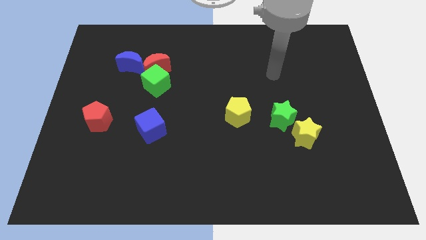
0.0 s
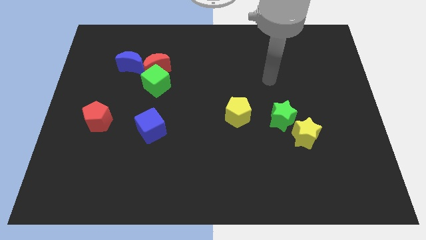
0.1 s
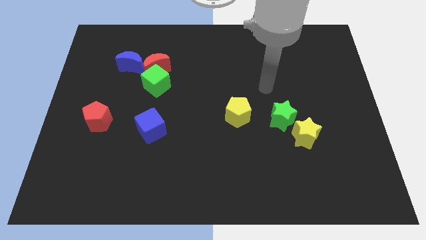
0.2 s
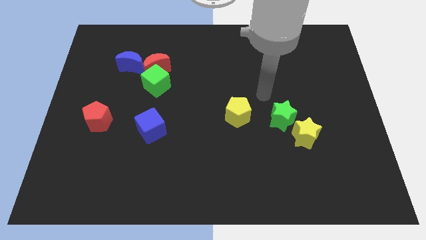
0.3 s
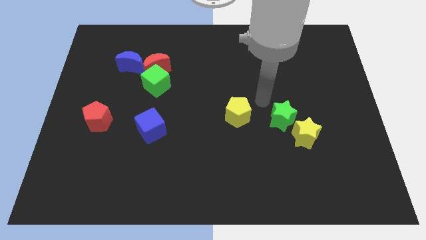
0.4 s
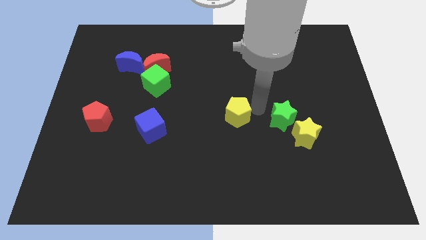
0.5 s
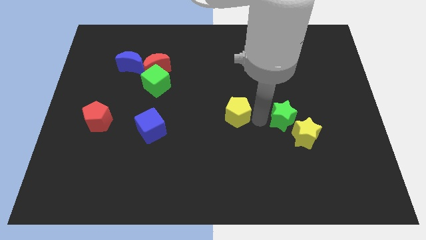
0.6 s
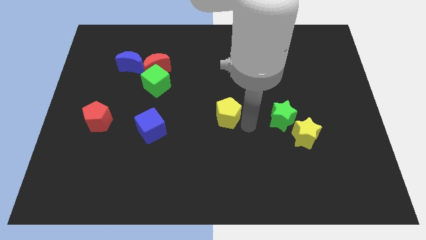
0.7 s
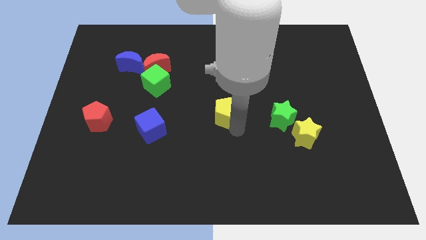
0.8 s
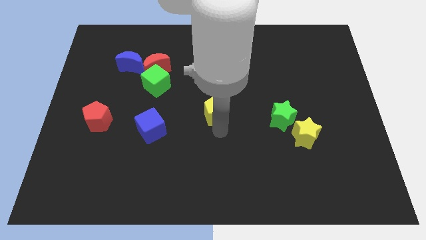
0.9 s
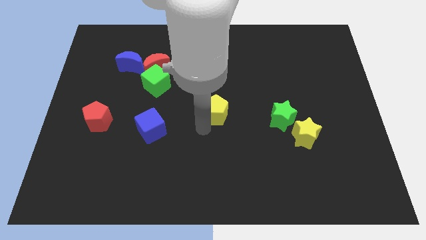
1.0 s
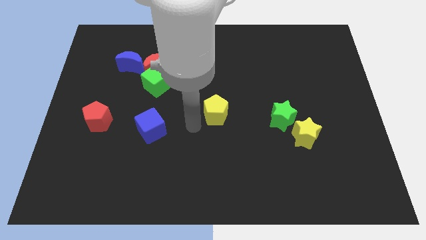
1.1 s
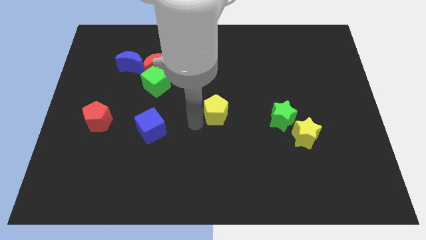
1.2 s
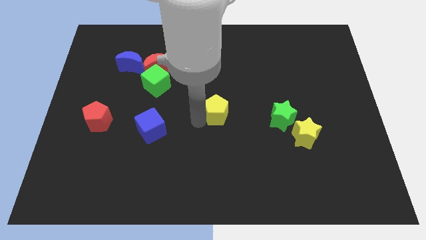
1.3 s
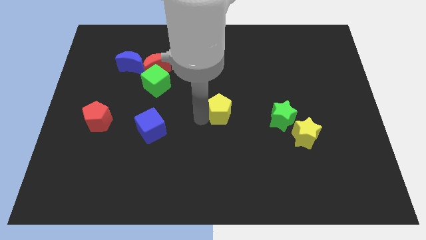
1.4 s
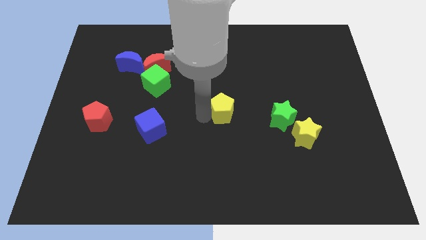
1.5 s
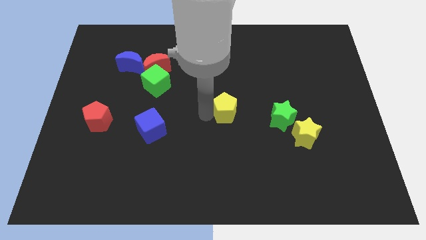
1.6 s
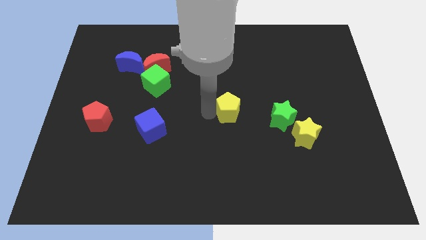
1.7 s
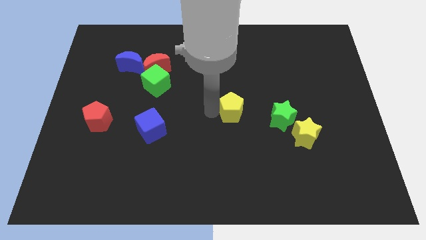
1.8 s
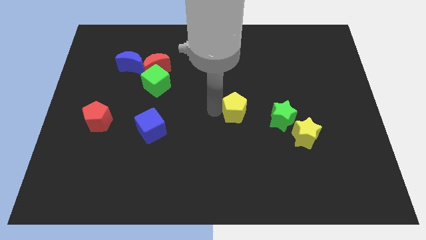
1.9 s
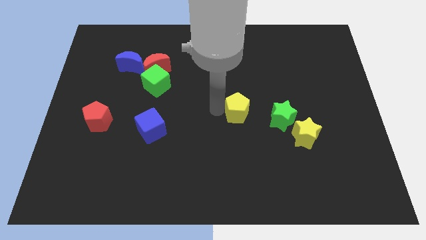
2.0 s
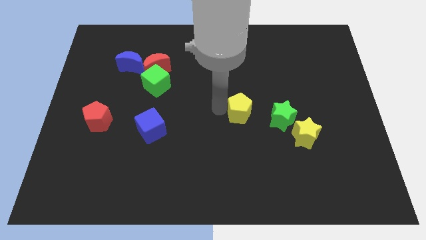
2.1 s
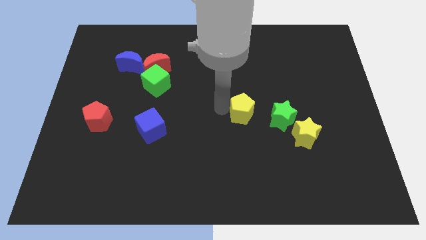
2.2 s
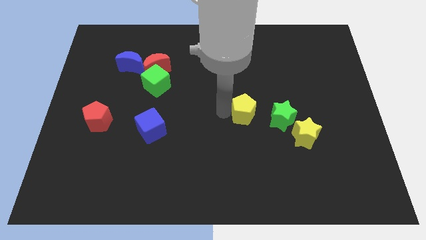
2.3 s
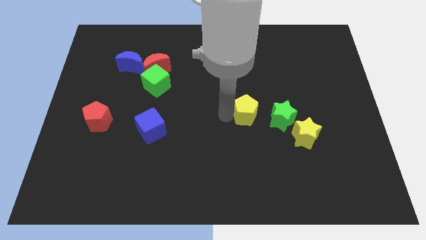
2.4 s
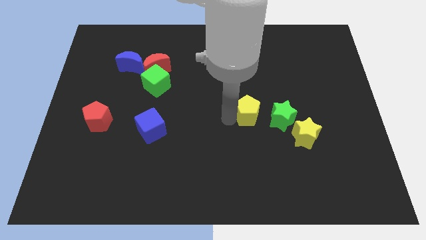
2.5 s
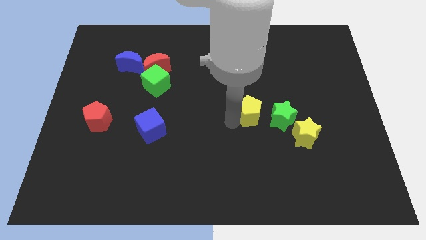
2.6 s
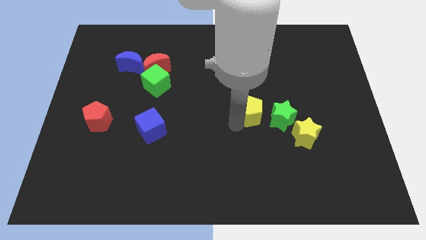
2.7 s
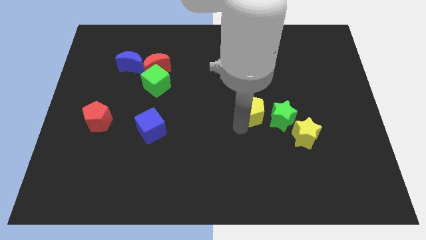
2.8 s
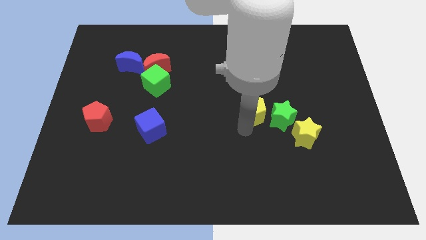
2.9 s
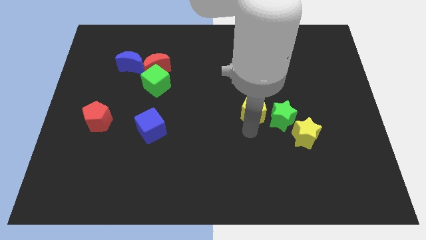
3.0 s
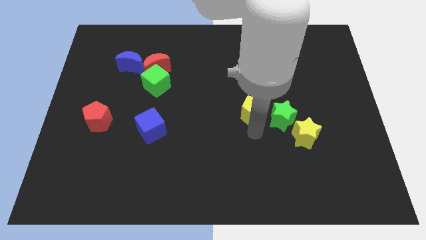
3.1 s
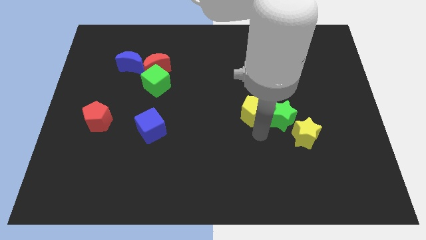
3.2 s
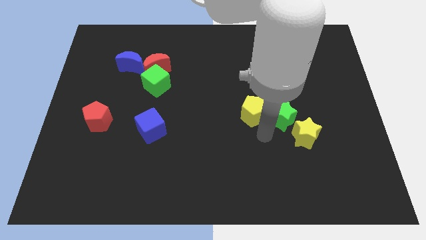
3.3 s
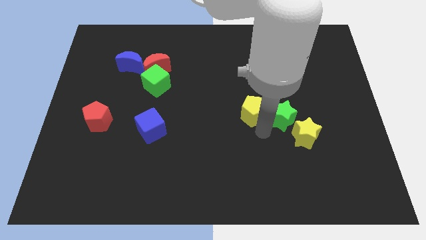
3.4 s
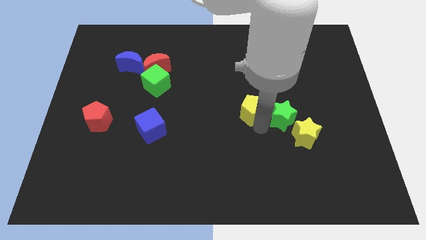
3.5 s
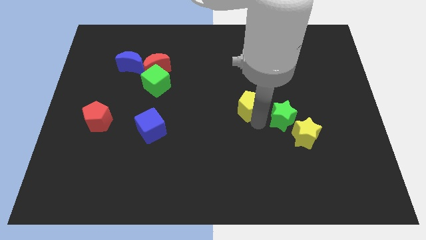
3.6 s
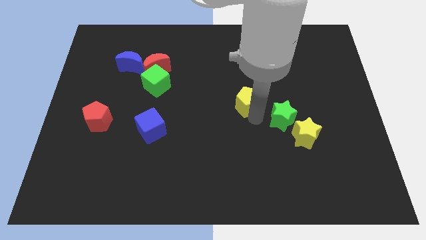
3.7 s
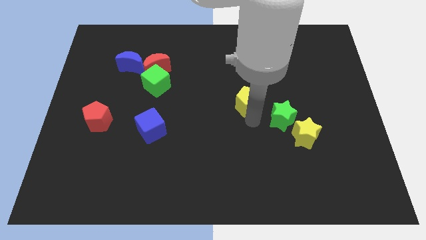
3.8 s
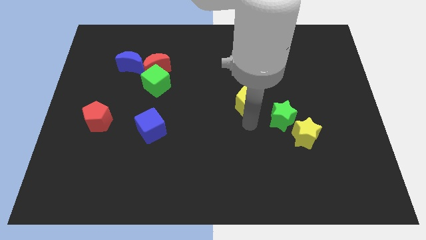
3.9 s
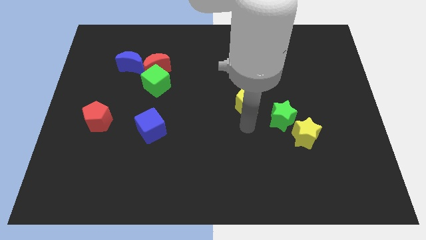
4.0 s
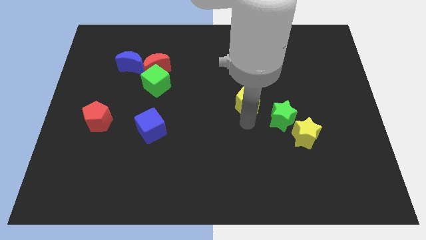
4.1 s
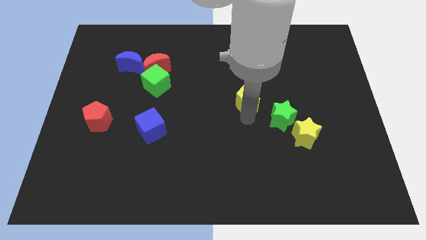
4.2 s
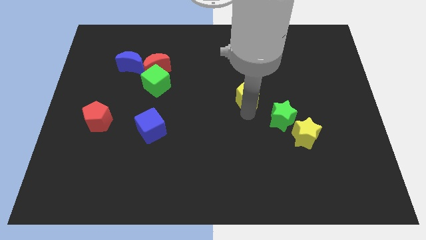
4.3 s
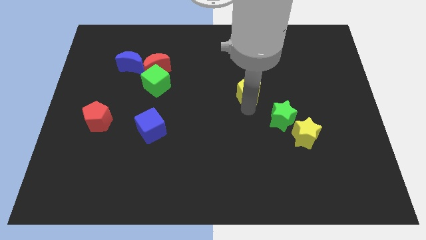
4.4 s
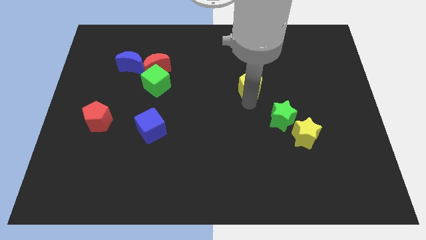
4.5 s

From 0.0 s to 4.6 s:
slightly slide the yellow pentagon up

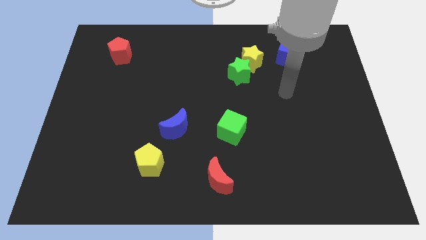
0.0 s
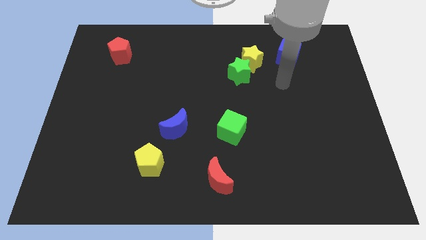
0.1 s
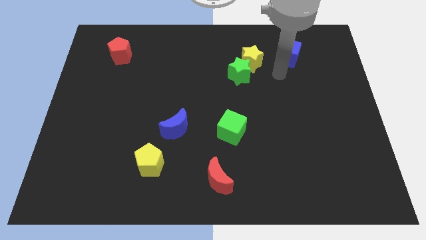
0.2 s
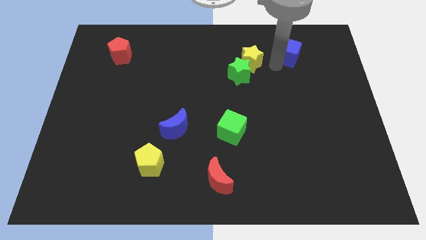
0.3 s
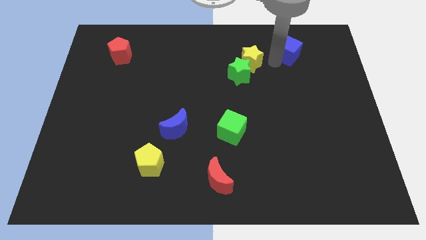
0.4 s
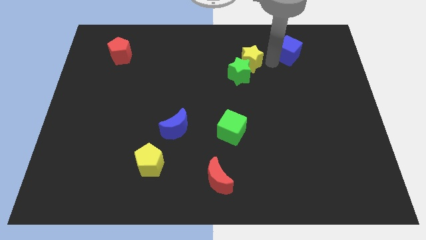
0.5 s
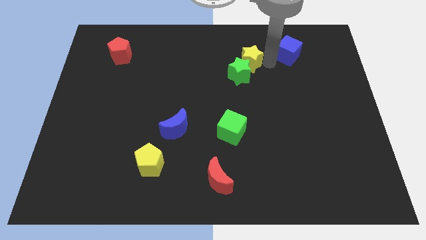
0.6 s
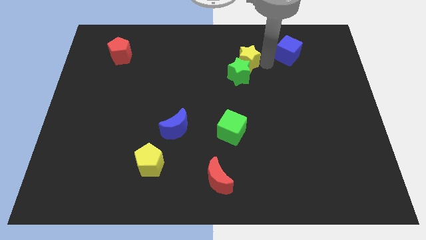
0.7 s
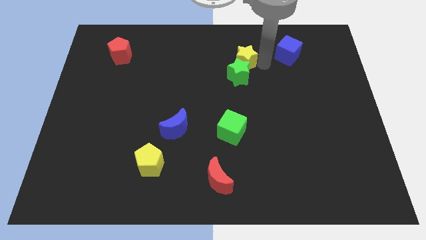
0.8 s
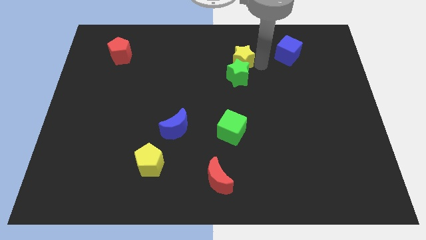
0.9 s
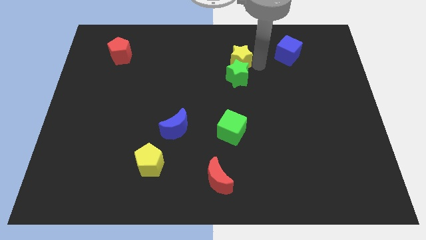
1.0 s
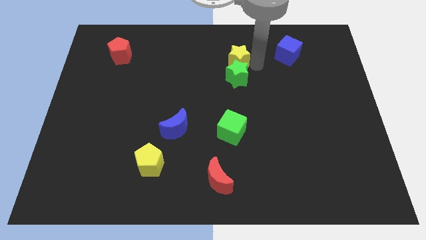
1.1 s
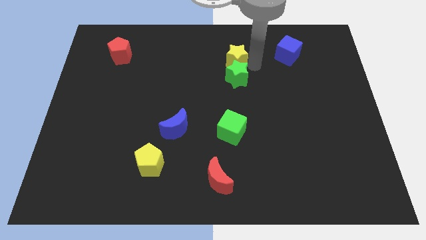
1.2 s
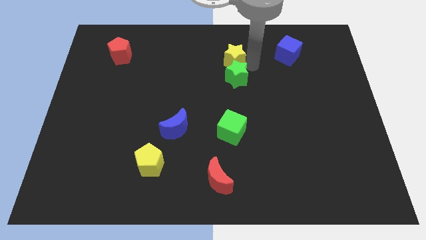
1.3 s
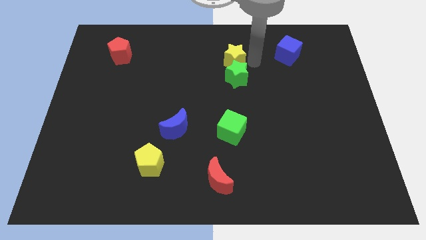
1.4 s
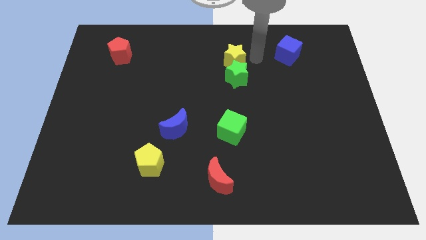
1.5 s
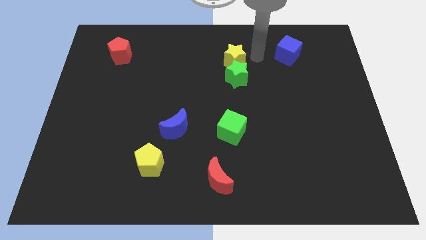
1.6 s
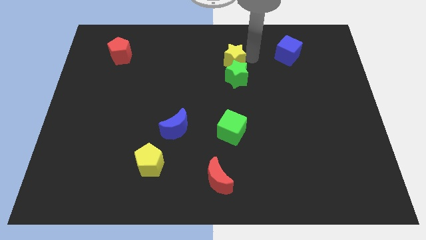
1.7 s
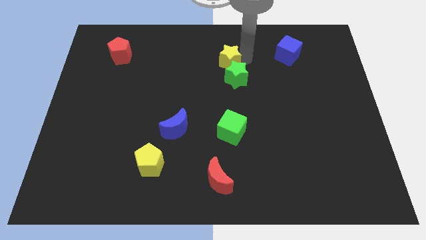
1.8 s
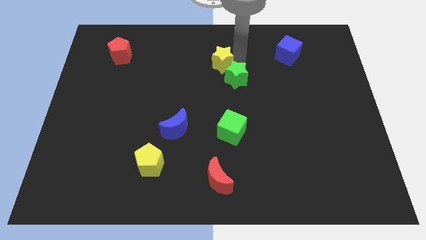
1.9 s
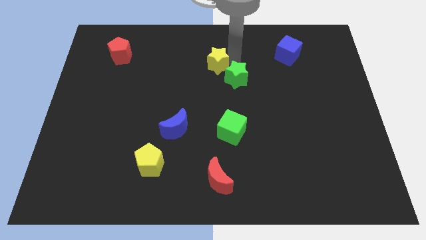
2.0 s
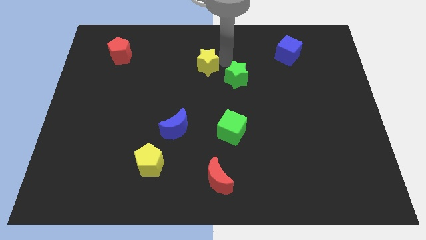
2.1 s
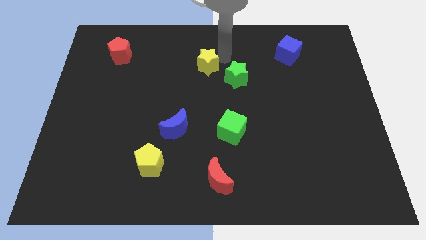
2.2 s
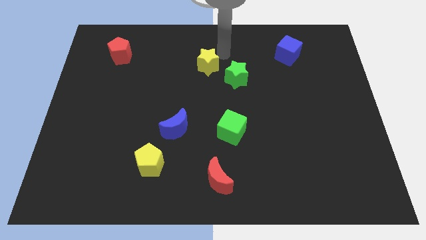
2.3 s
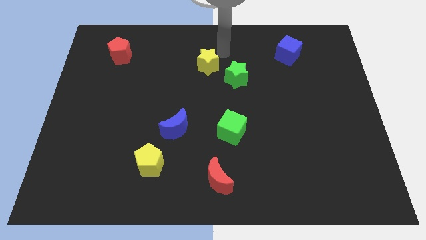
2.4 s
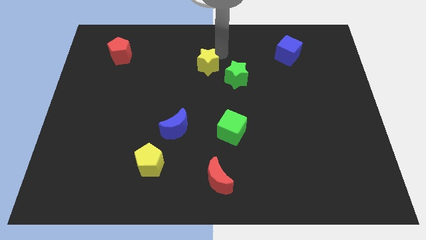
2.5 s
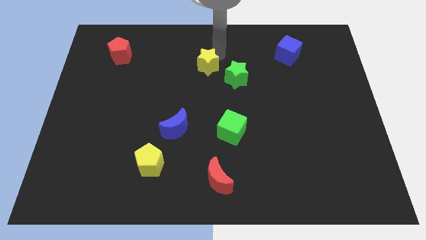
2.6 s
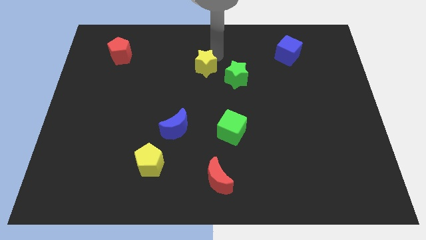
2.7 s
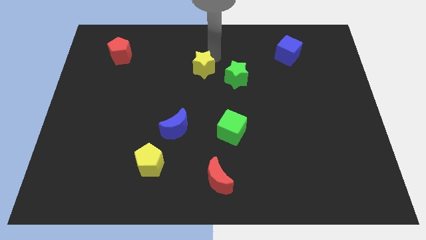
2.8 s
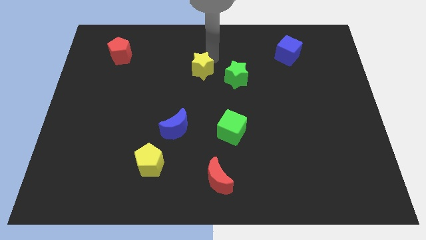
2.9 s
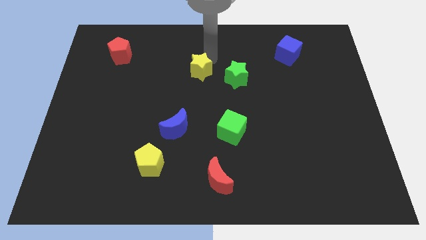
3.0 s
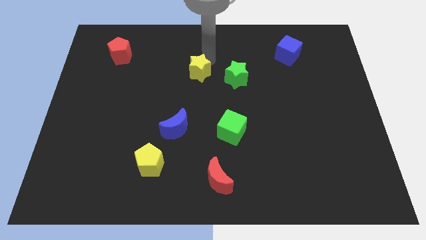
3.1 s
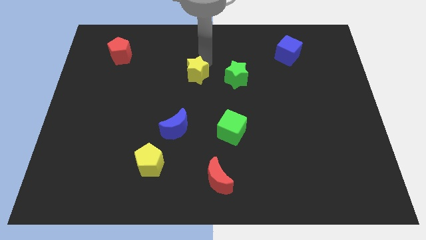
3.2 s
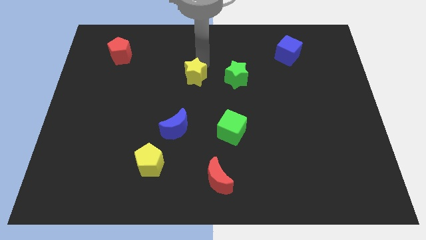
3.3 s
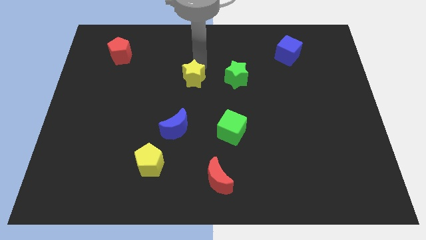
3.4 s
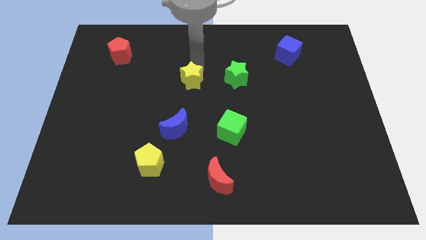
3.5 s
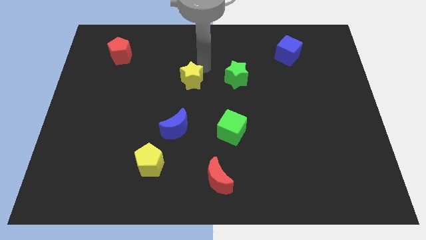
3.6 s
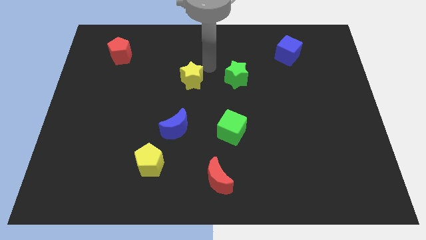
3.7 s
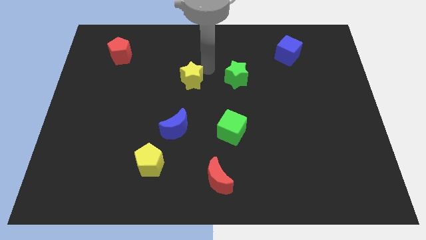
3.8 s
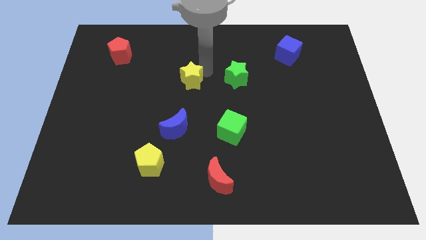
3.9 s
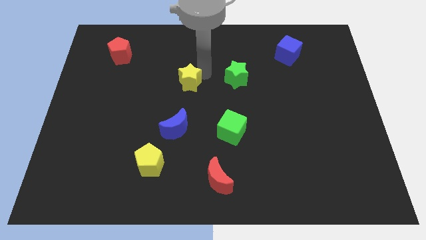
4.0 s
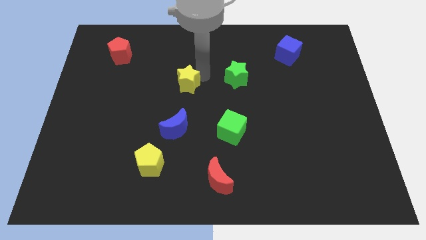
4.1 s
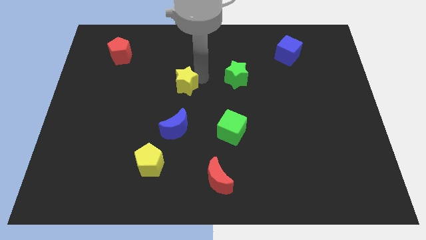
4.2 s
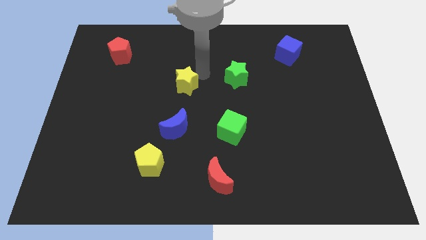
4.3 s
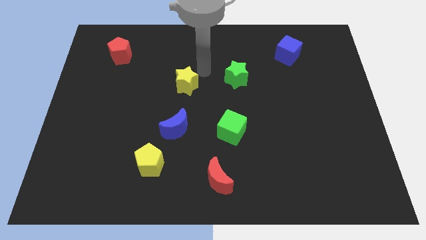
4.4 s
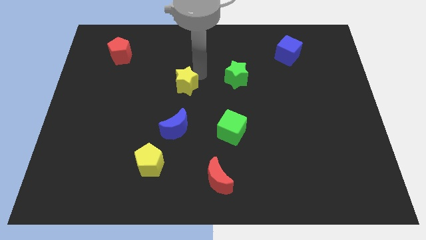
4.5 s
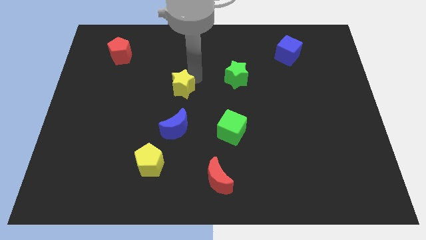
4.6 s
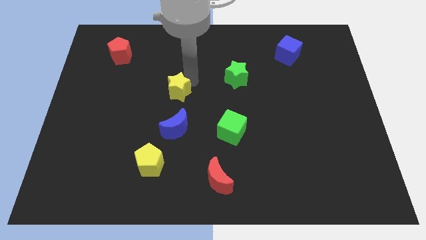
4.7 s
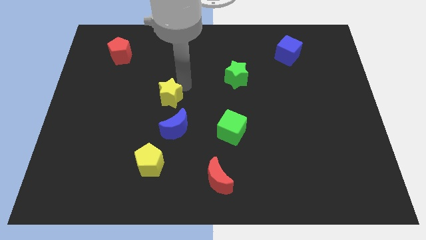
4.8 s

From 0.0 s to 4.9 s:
slide the yellow star downwards and to the left
